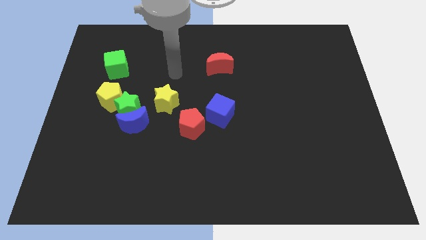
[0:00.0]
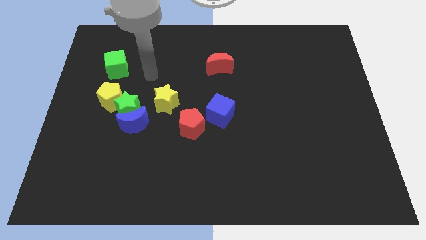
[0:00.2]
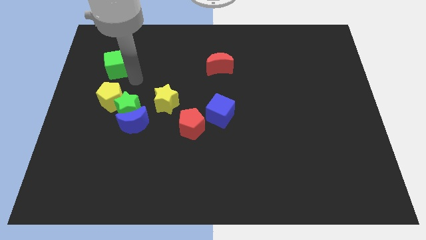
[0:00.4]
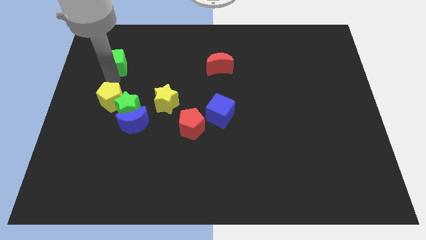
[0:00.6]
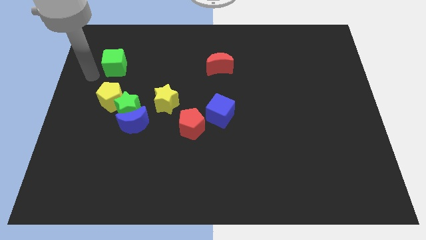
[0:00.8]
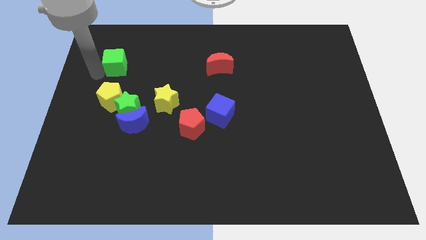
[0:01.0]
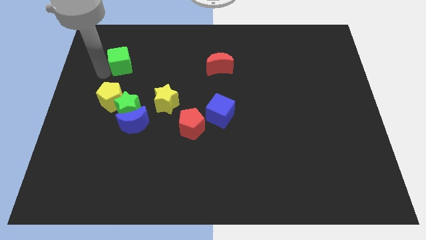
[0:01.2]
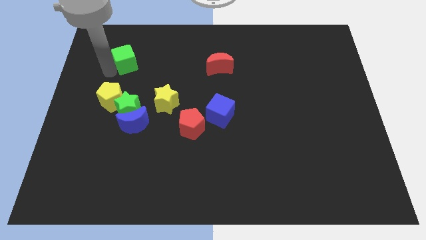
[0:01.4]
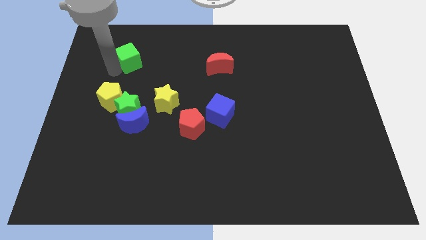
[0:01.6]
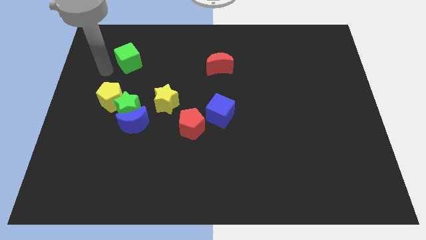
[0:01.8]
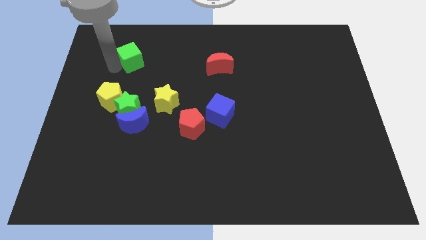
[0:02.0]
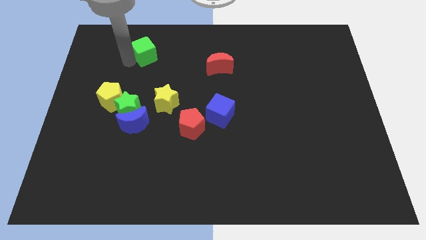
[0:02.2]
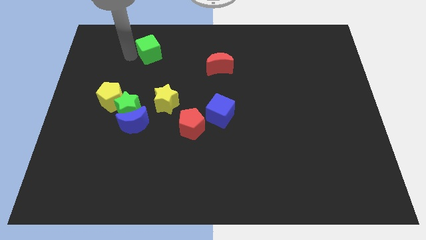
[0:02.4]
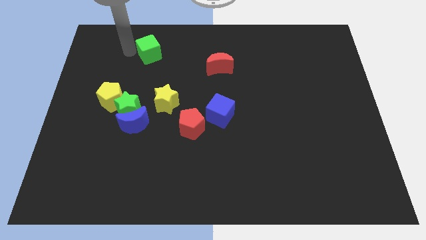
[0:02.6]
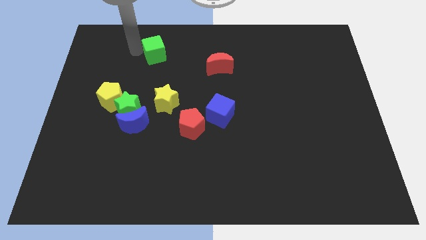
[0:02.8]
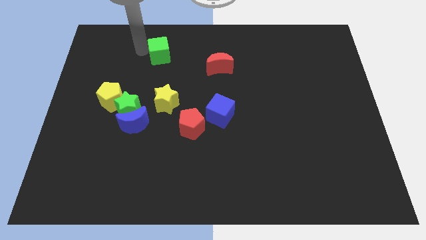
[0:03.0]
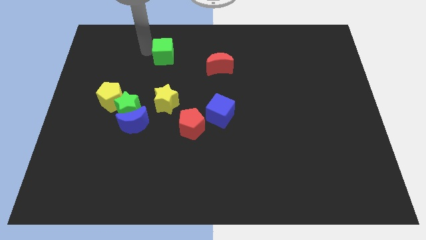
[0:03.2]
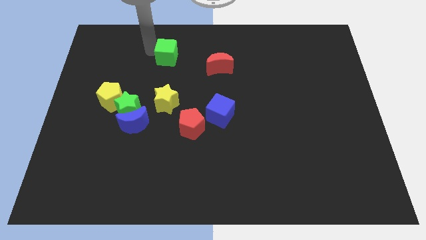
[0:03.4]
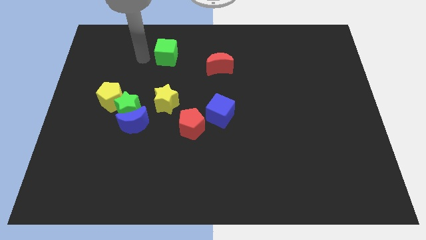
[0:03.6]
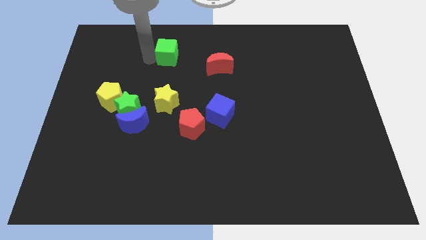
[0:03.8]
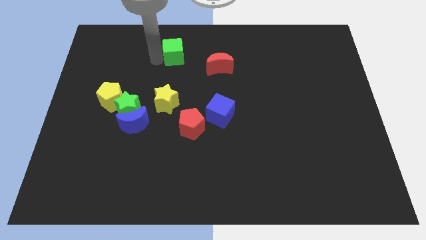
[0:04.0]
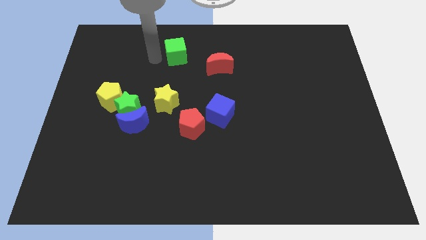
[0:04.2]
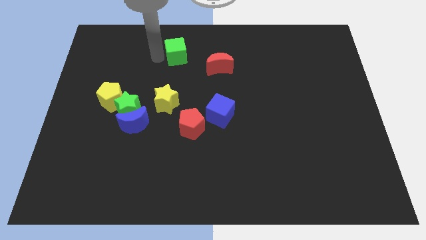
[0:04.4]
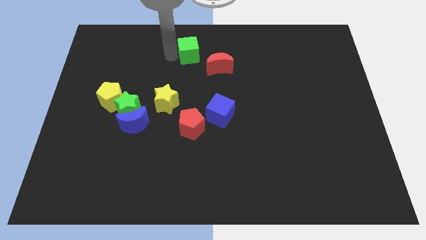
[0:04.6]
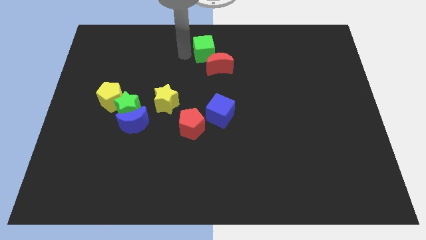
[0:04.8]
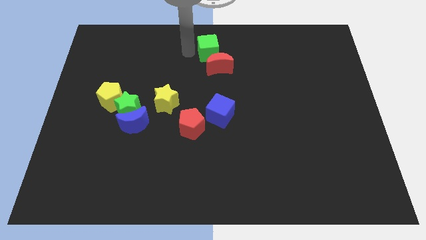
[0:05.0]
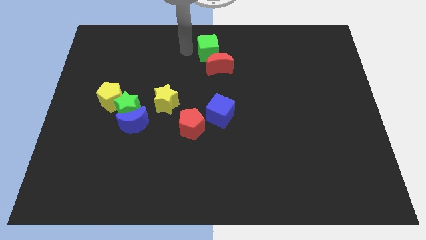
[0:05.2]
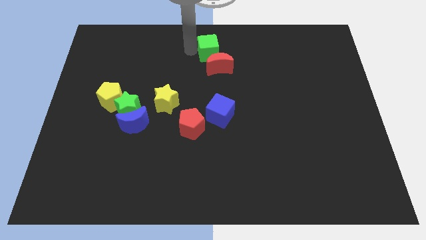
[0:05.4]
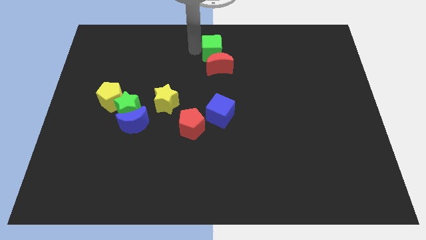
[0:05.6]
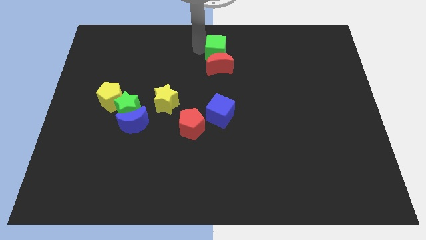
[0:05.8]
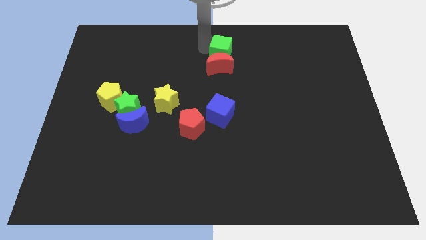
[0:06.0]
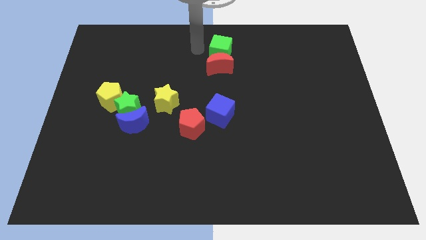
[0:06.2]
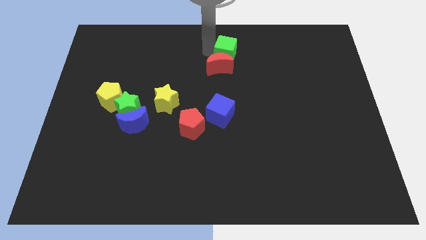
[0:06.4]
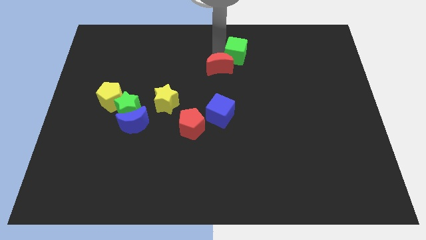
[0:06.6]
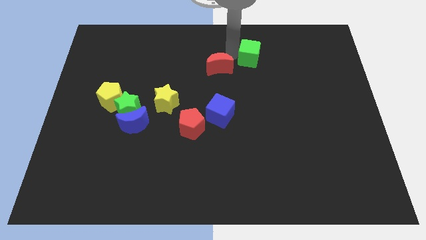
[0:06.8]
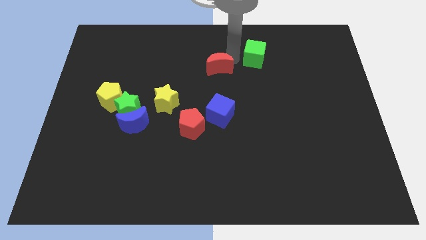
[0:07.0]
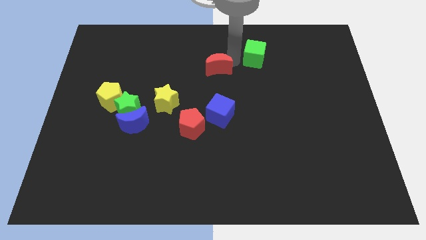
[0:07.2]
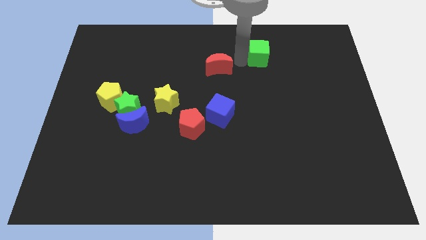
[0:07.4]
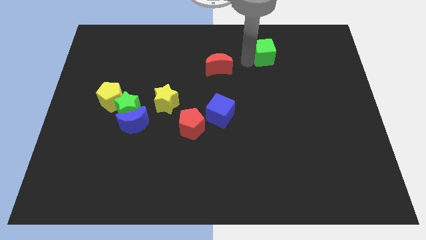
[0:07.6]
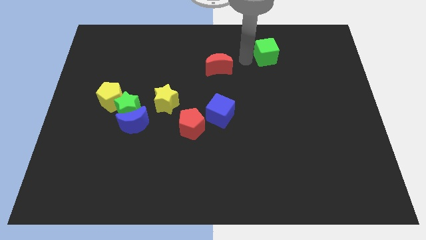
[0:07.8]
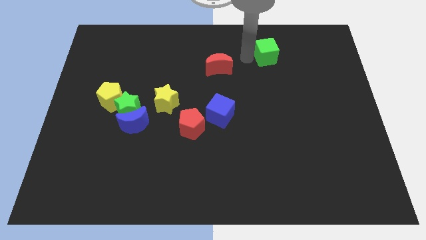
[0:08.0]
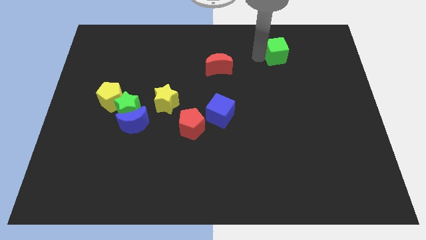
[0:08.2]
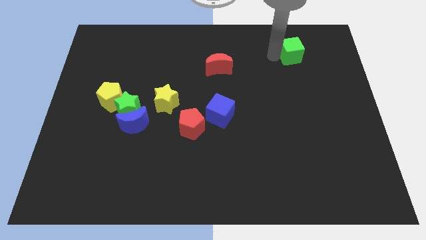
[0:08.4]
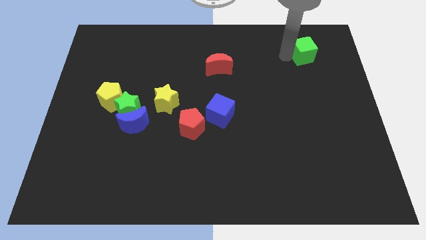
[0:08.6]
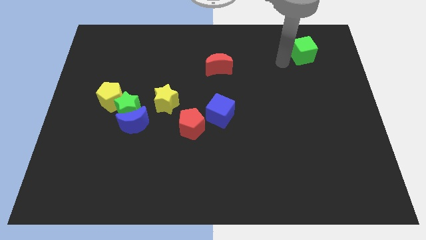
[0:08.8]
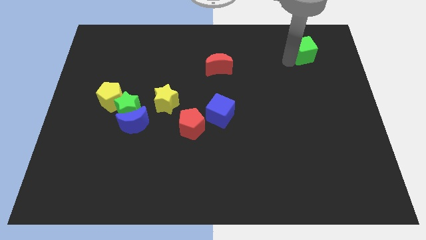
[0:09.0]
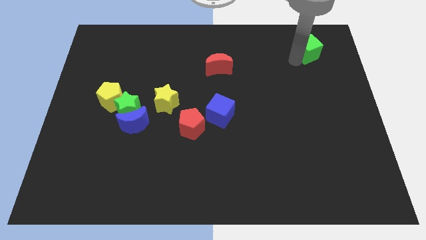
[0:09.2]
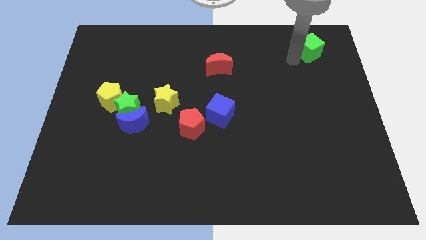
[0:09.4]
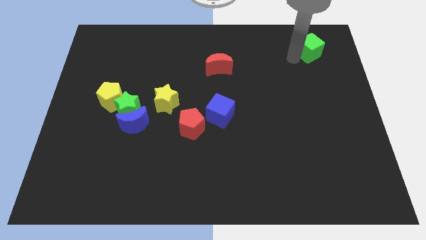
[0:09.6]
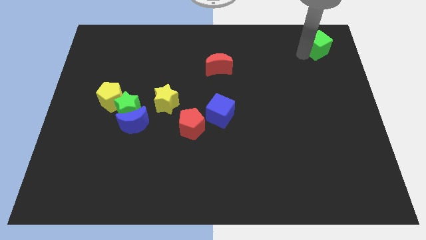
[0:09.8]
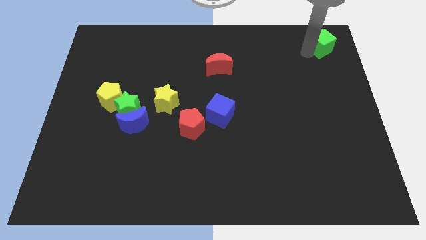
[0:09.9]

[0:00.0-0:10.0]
move the green cube to the top right of the board

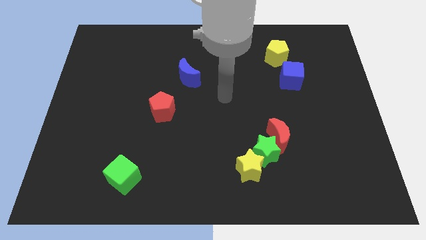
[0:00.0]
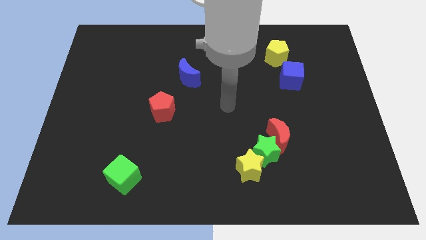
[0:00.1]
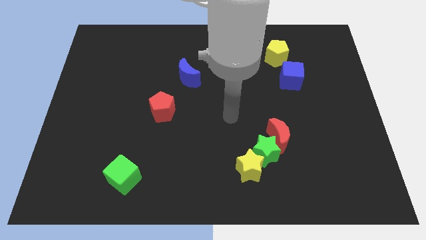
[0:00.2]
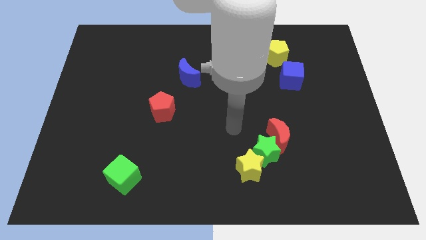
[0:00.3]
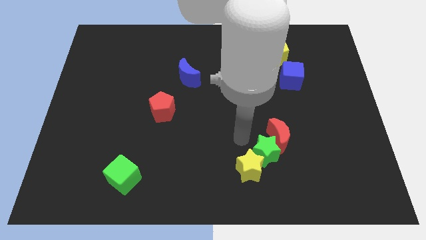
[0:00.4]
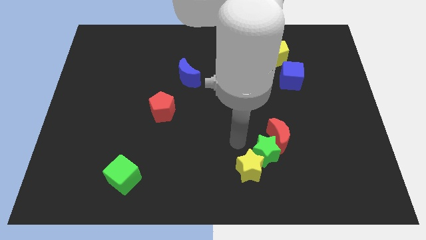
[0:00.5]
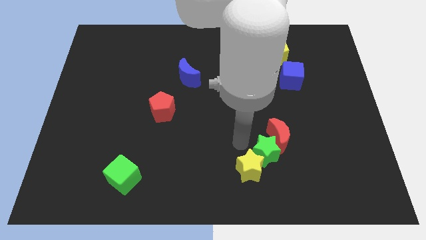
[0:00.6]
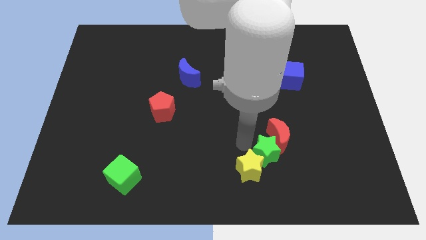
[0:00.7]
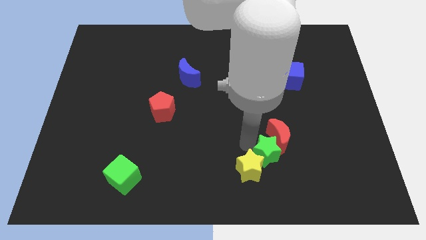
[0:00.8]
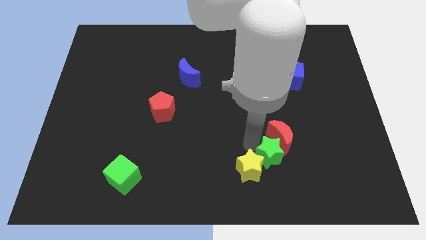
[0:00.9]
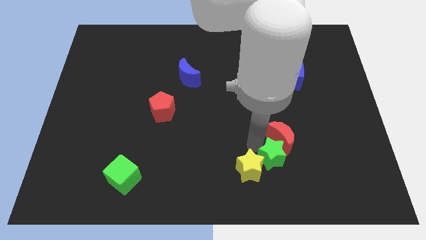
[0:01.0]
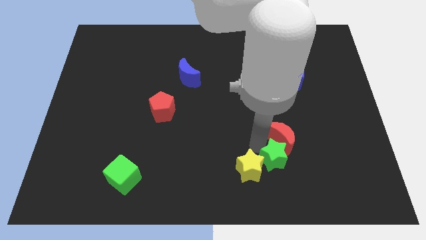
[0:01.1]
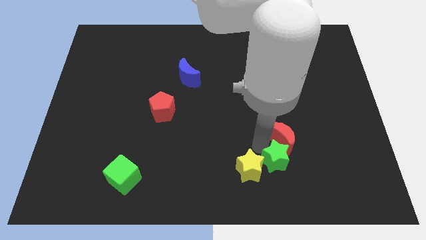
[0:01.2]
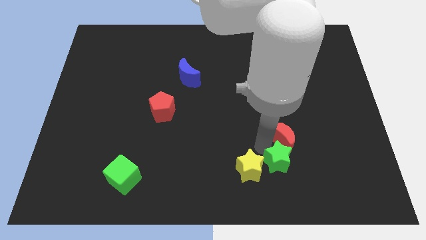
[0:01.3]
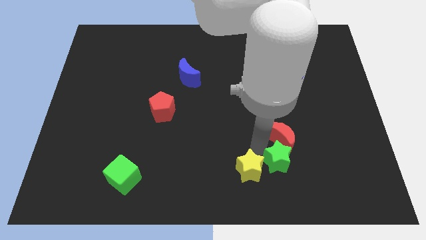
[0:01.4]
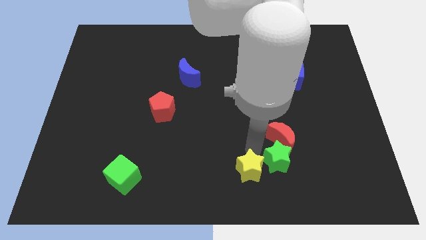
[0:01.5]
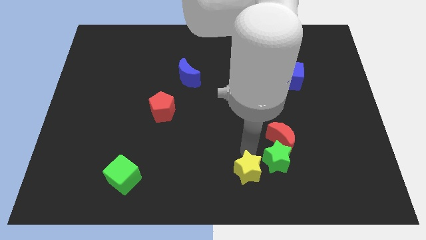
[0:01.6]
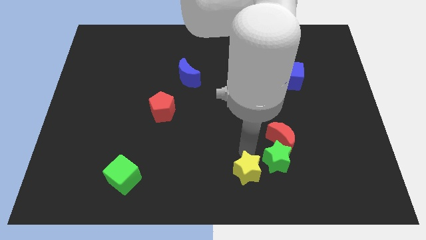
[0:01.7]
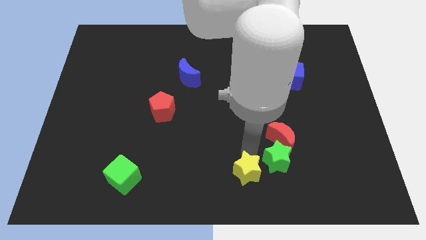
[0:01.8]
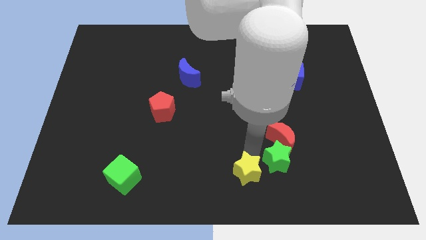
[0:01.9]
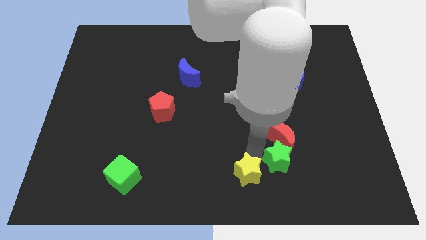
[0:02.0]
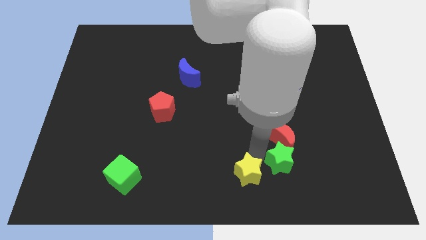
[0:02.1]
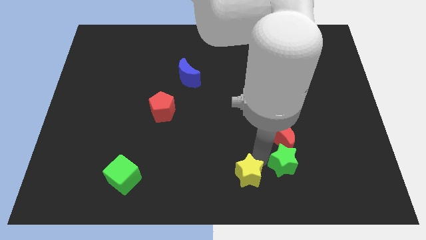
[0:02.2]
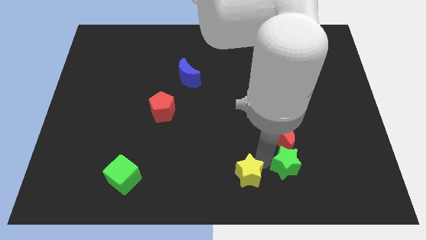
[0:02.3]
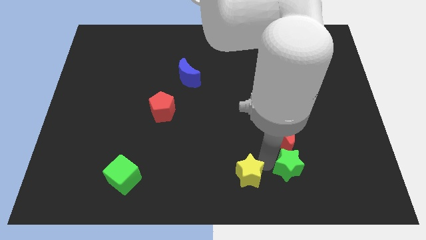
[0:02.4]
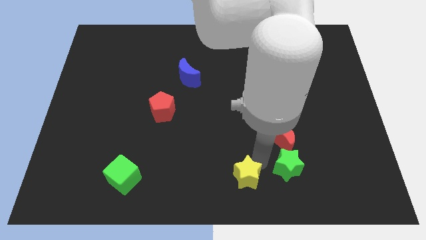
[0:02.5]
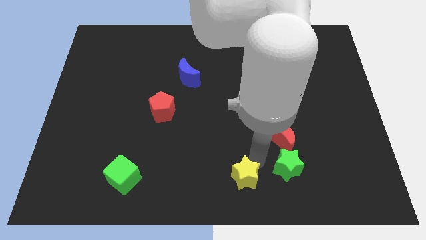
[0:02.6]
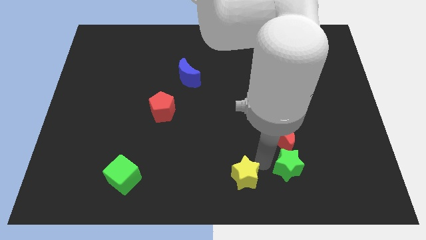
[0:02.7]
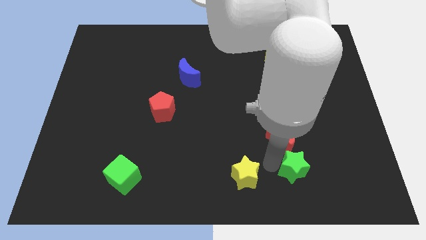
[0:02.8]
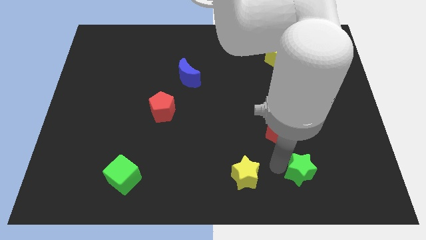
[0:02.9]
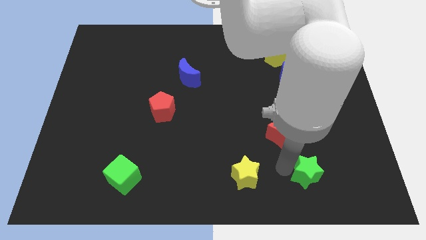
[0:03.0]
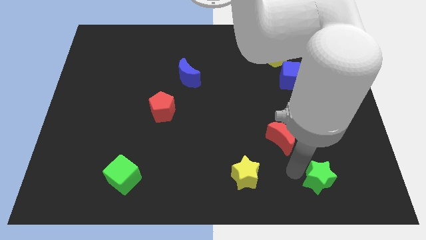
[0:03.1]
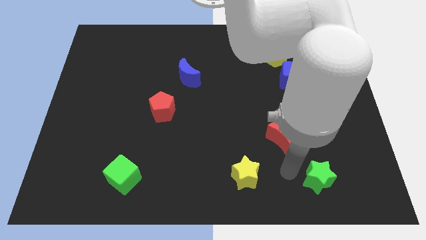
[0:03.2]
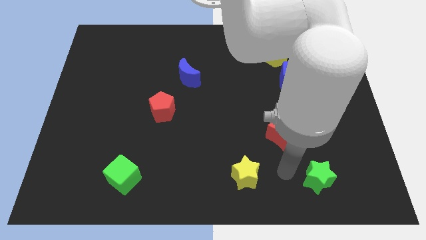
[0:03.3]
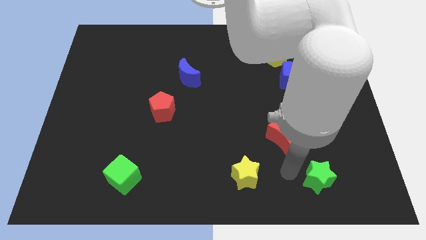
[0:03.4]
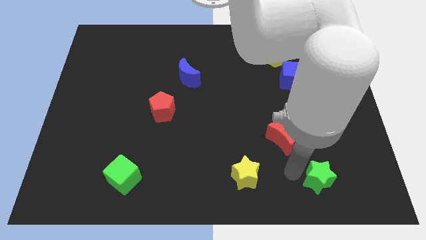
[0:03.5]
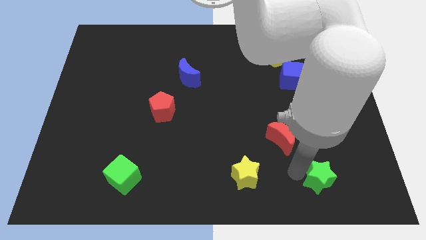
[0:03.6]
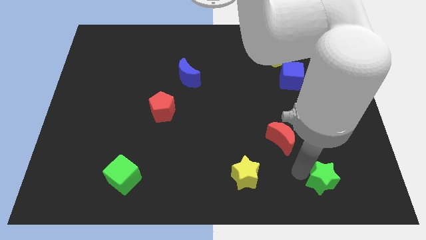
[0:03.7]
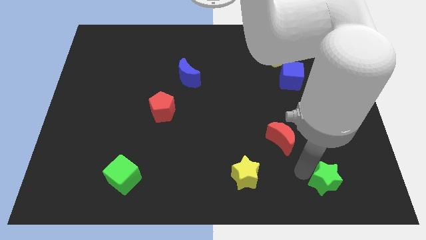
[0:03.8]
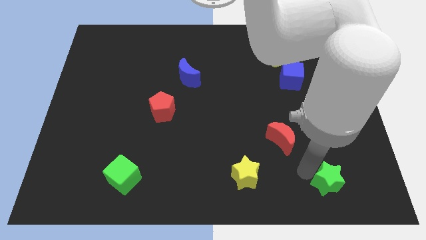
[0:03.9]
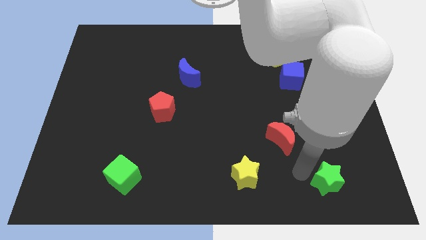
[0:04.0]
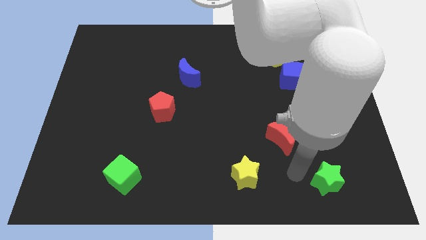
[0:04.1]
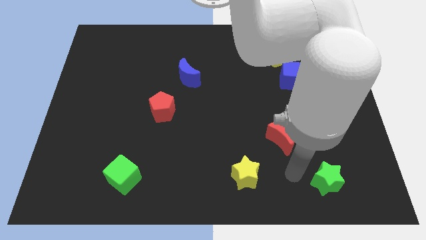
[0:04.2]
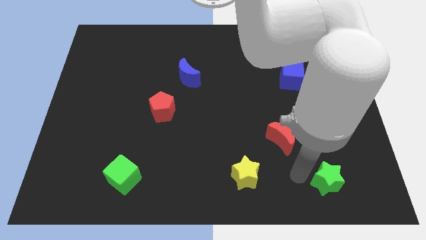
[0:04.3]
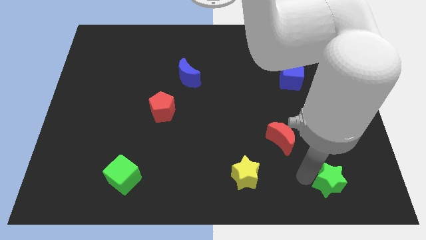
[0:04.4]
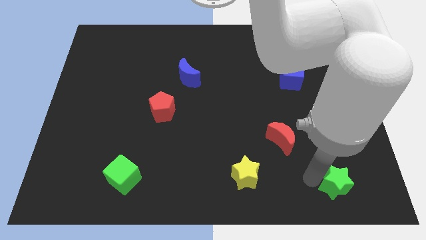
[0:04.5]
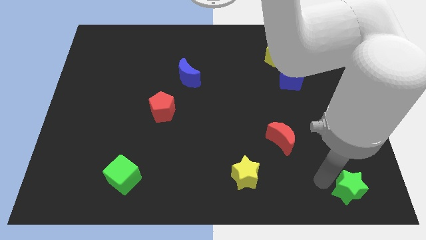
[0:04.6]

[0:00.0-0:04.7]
move the green star to the bottom right of the board
